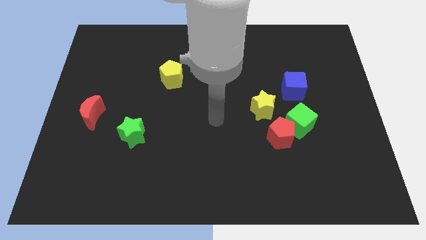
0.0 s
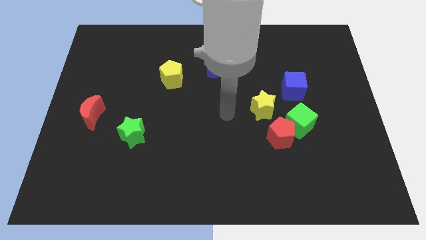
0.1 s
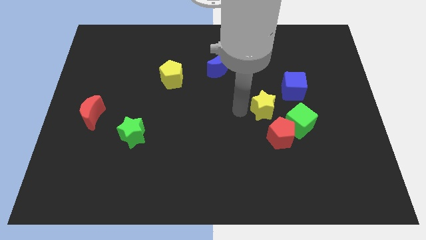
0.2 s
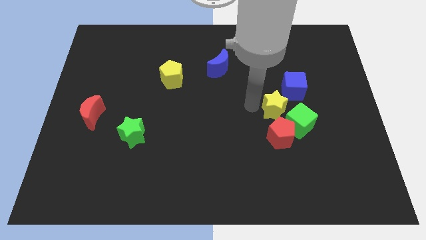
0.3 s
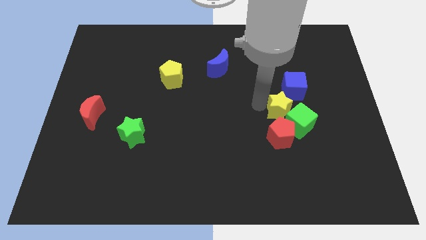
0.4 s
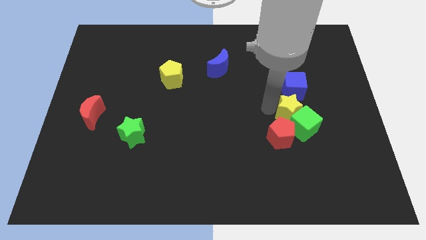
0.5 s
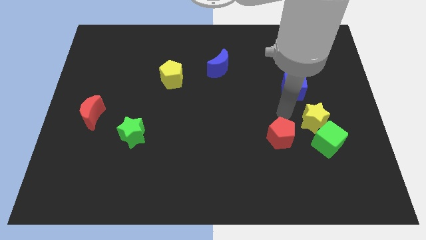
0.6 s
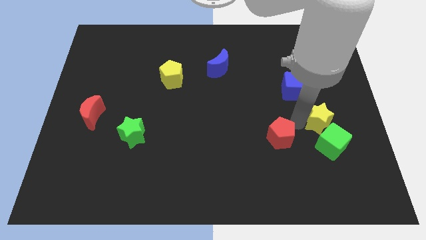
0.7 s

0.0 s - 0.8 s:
move the red pentagon away from the green cube and yellow star

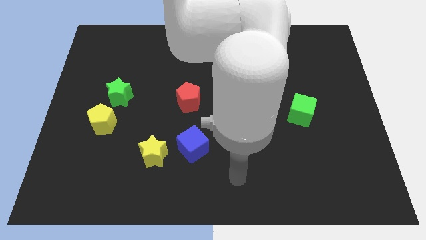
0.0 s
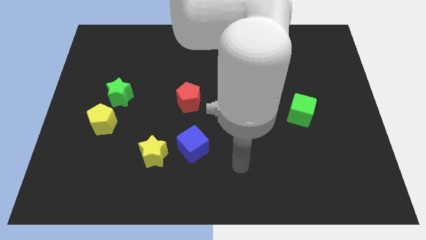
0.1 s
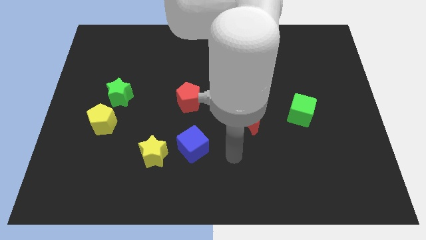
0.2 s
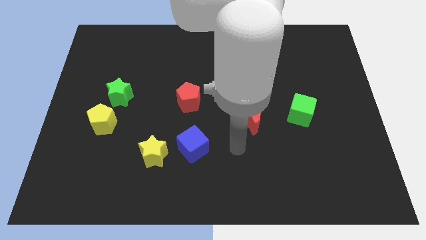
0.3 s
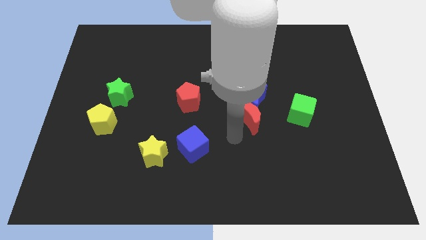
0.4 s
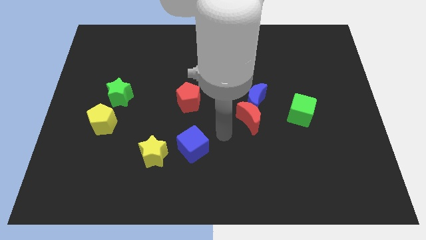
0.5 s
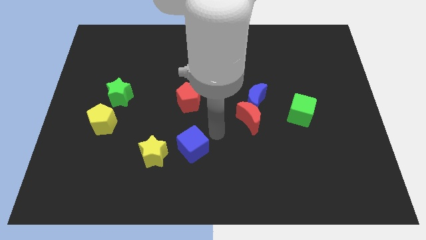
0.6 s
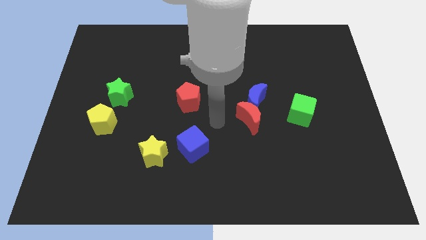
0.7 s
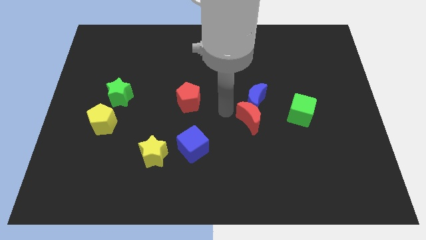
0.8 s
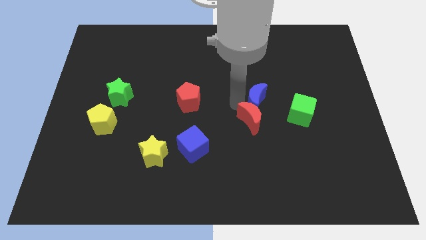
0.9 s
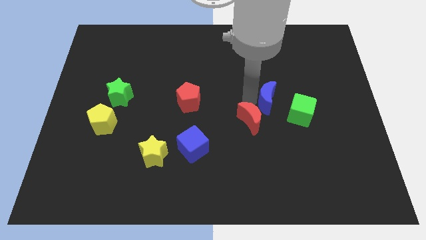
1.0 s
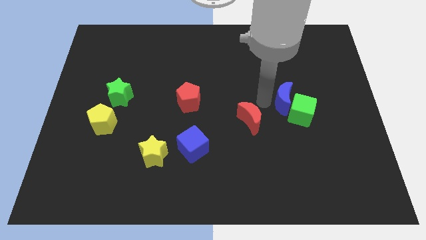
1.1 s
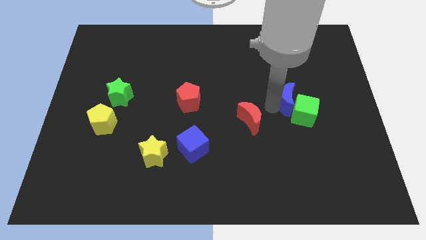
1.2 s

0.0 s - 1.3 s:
move the red moon away from the blue moon

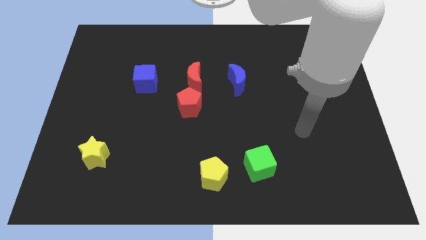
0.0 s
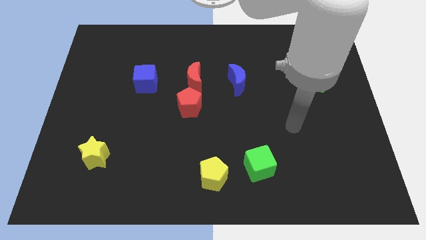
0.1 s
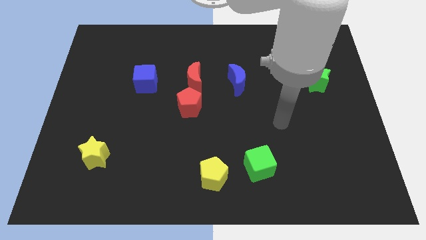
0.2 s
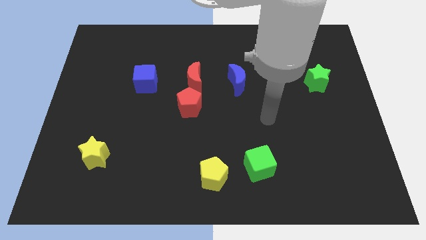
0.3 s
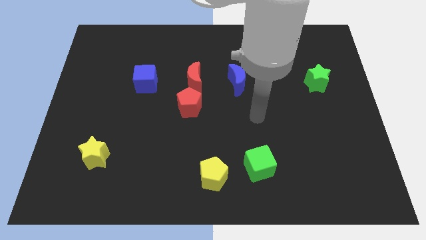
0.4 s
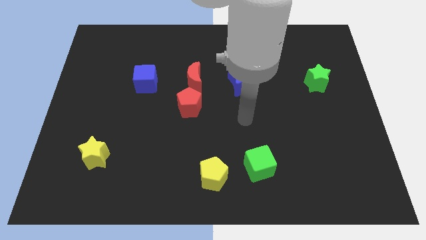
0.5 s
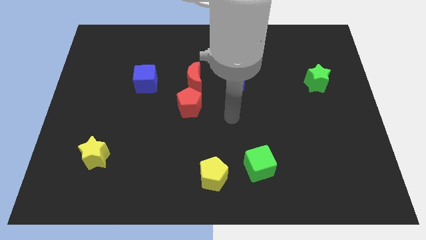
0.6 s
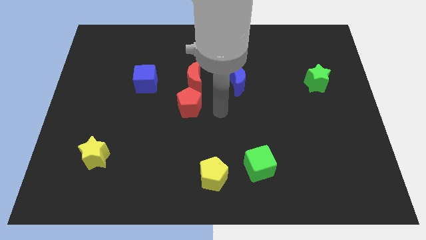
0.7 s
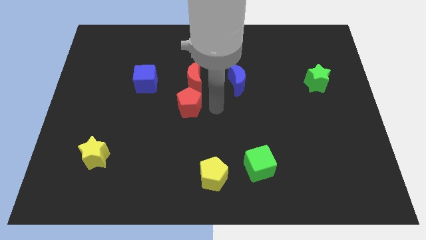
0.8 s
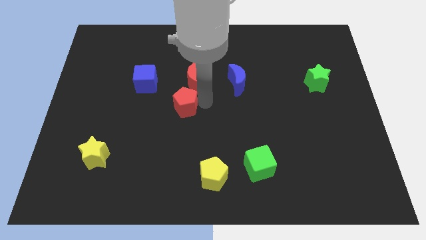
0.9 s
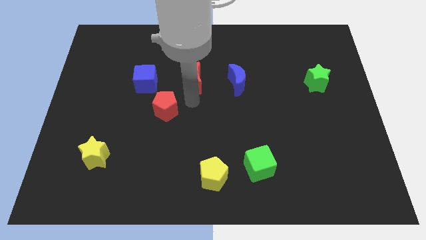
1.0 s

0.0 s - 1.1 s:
separate the red moon from the red pentagon

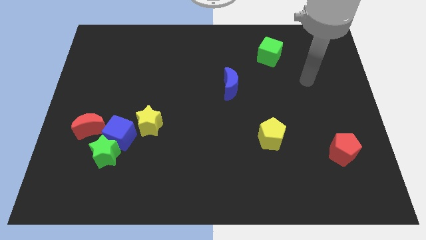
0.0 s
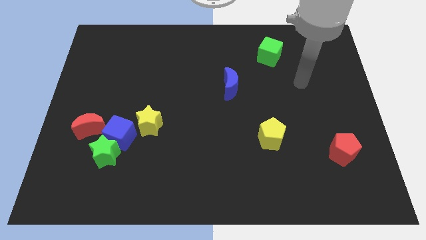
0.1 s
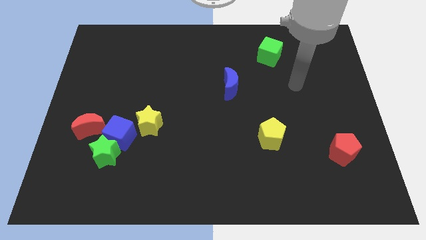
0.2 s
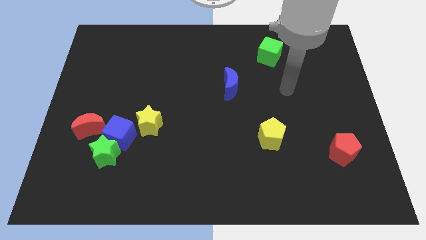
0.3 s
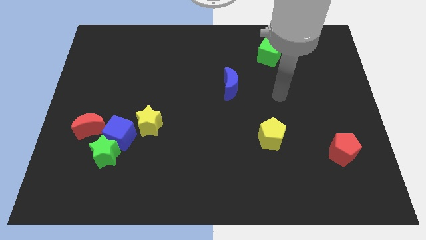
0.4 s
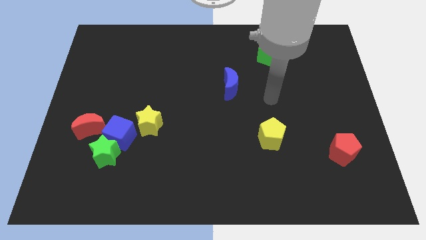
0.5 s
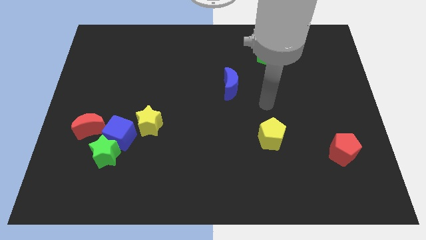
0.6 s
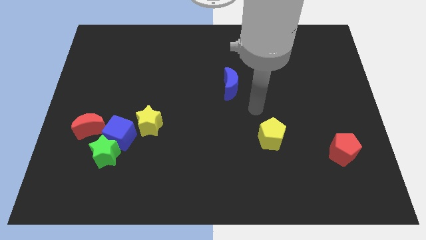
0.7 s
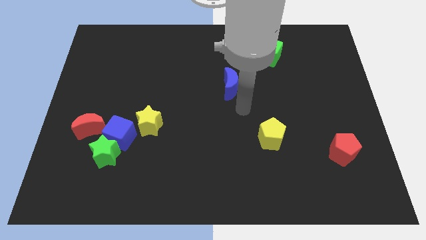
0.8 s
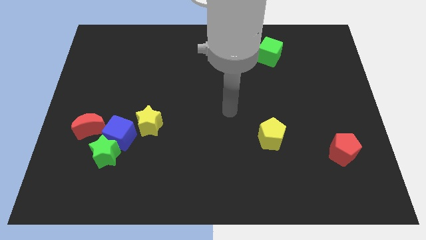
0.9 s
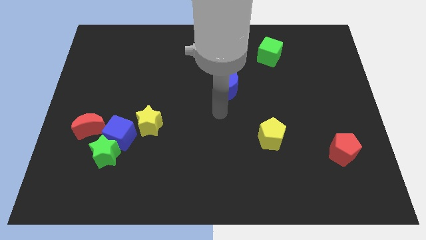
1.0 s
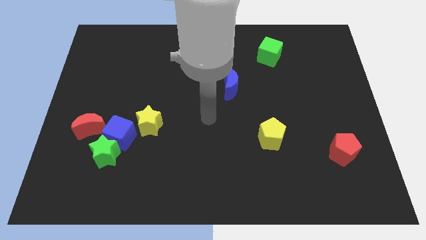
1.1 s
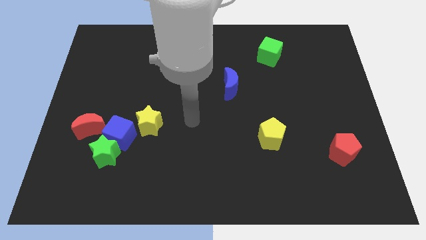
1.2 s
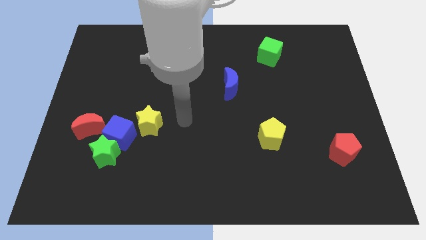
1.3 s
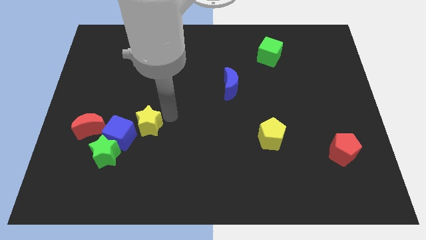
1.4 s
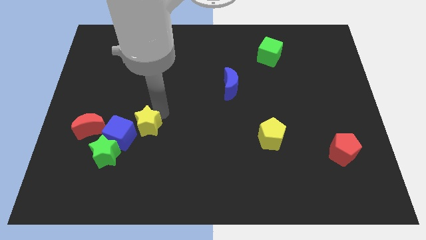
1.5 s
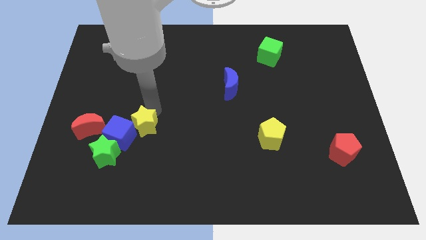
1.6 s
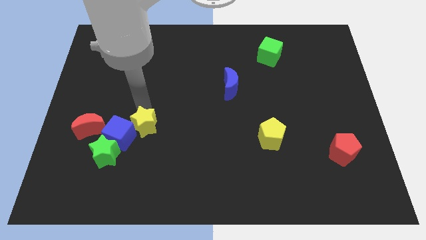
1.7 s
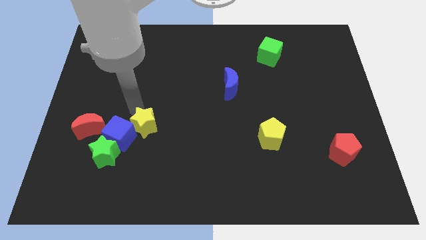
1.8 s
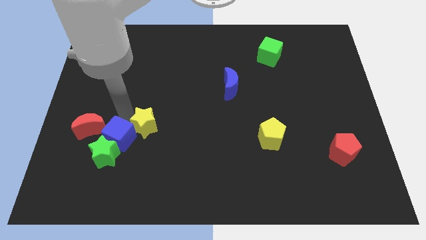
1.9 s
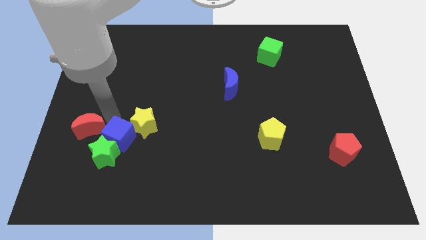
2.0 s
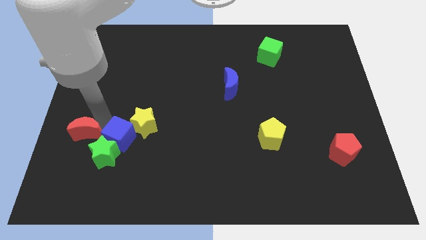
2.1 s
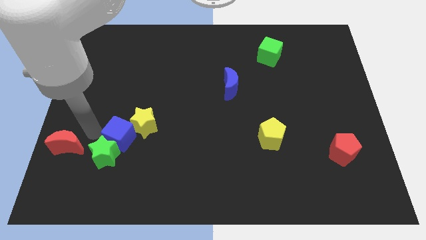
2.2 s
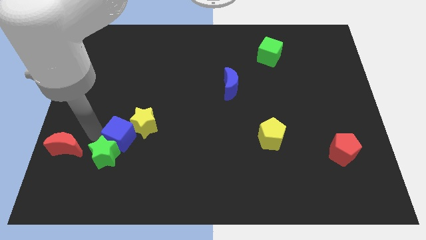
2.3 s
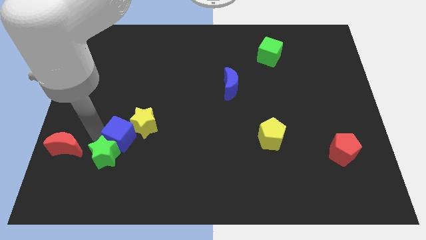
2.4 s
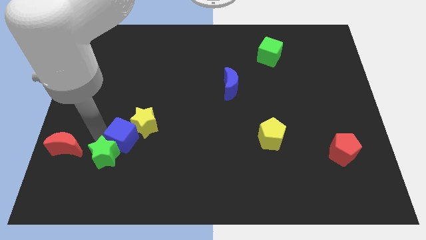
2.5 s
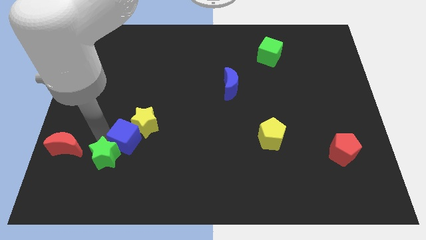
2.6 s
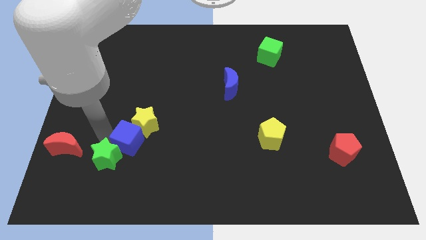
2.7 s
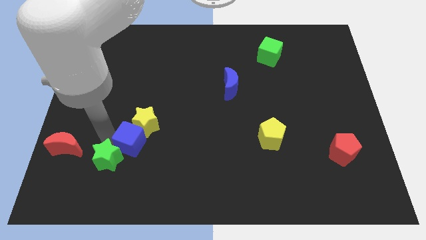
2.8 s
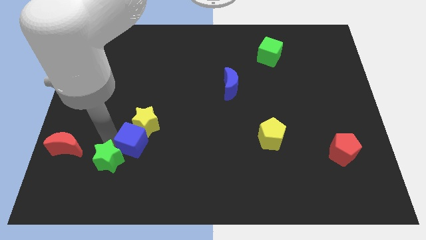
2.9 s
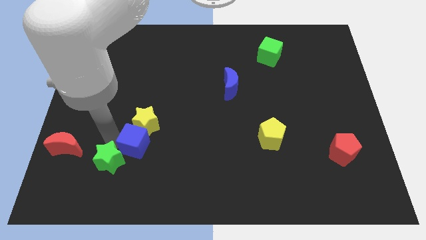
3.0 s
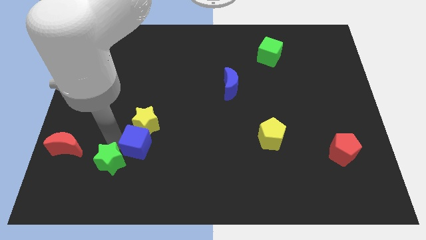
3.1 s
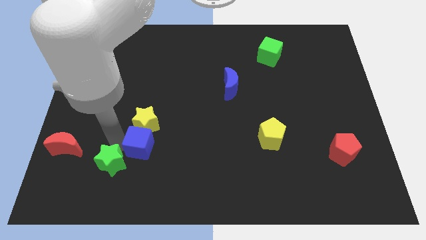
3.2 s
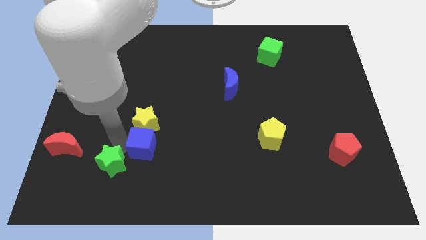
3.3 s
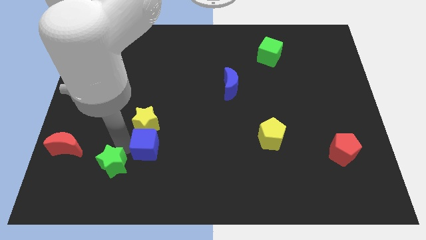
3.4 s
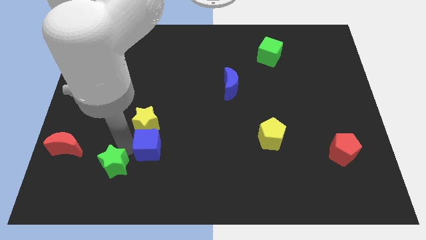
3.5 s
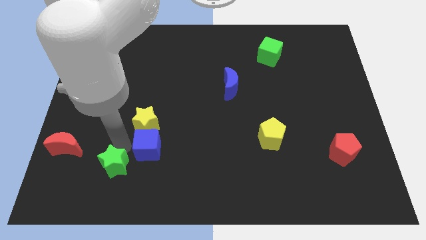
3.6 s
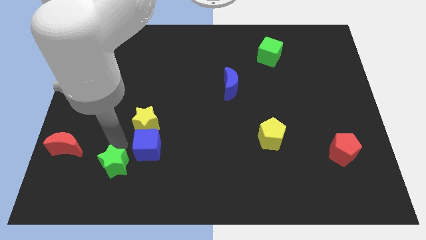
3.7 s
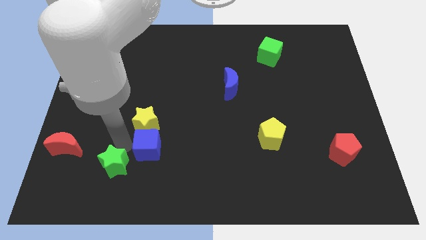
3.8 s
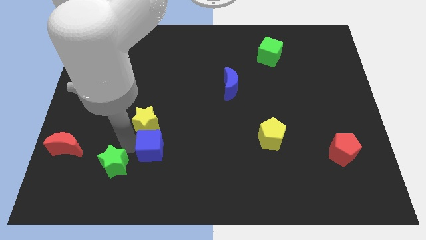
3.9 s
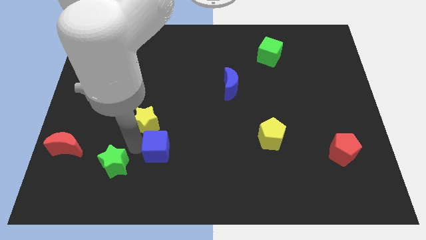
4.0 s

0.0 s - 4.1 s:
move the blue cube away from the green star, yellow star, and red moon

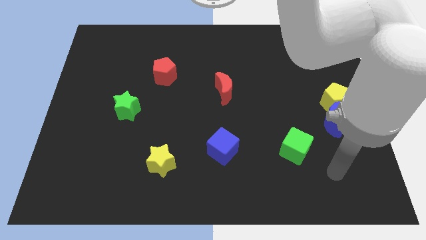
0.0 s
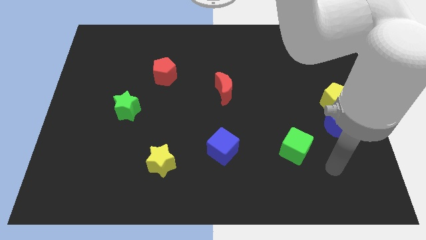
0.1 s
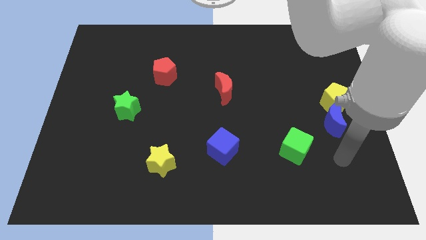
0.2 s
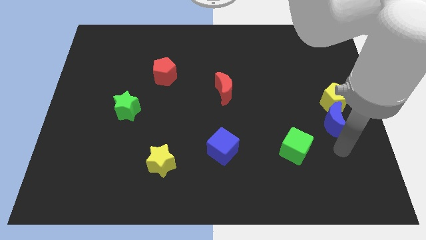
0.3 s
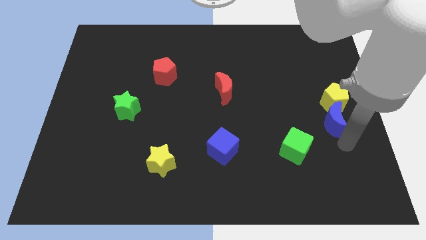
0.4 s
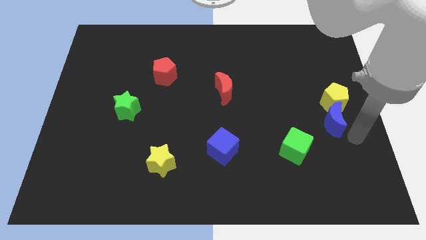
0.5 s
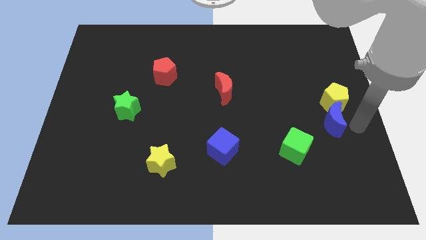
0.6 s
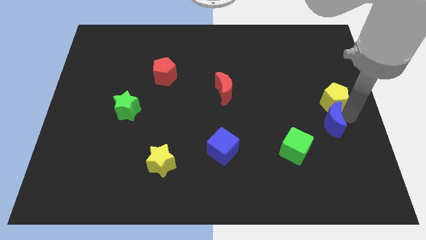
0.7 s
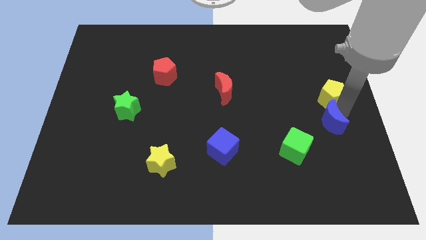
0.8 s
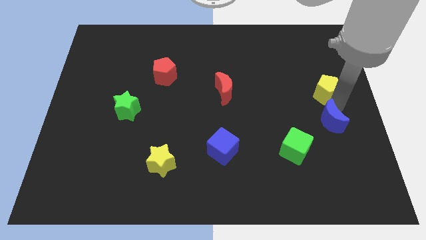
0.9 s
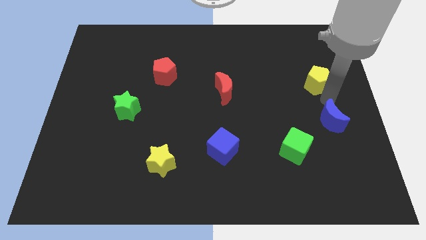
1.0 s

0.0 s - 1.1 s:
separate the blue moon from the yellow pentagon

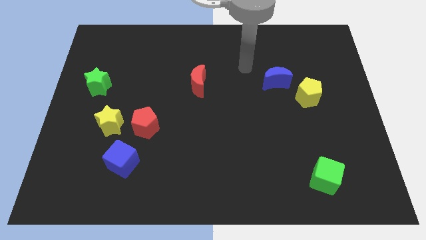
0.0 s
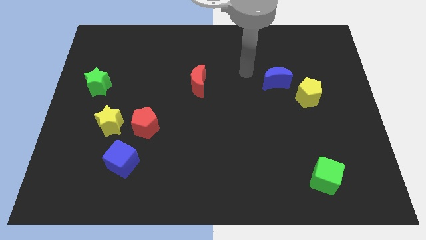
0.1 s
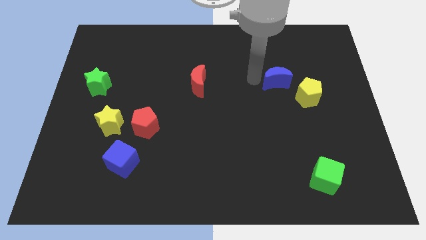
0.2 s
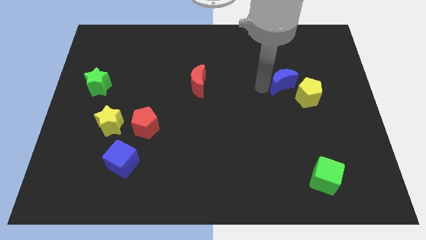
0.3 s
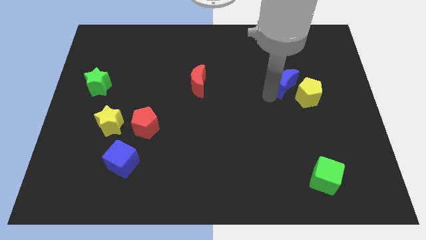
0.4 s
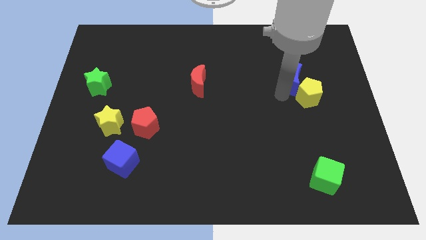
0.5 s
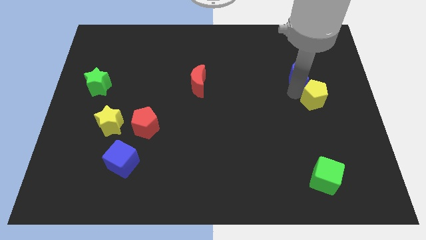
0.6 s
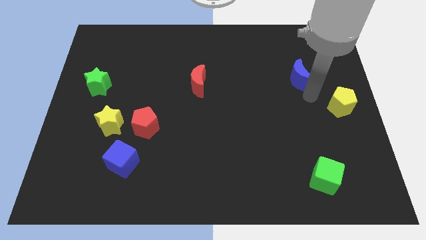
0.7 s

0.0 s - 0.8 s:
pull the blue moon apart from the yellow pentagon
